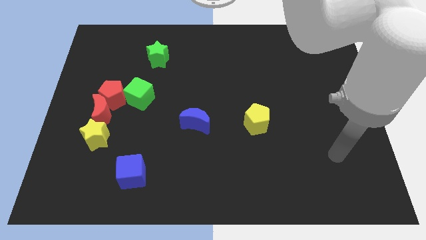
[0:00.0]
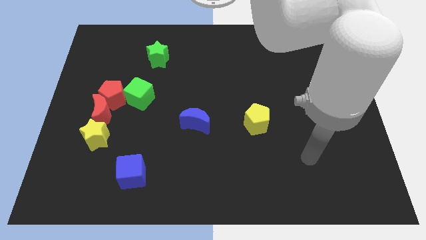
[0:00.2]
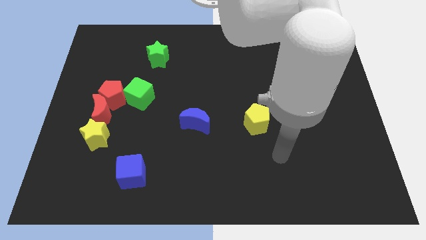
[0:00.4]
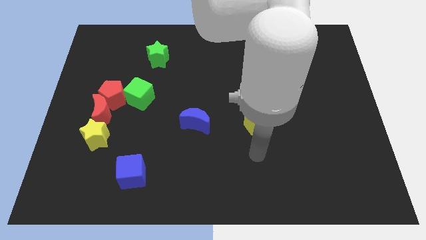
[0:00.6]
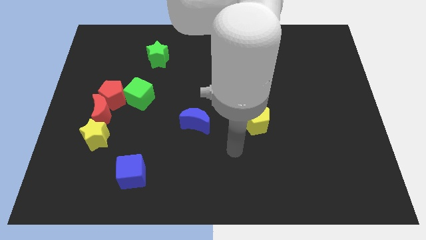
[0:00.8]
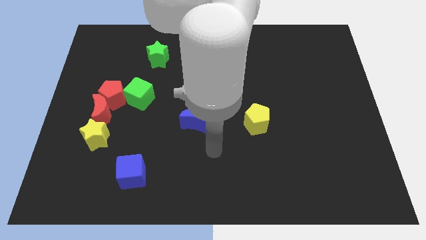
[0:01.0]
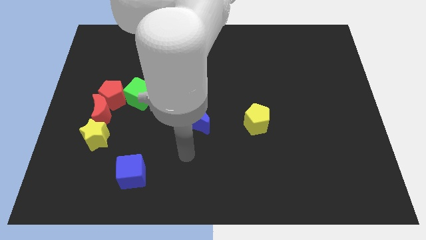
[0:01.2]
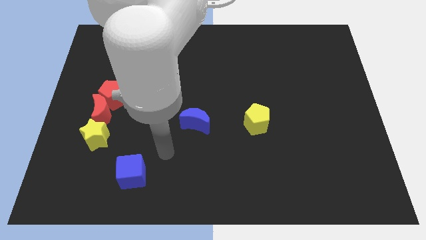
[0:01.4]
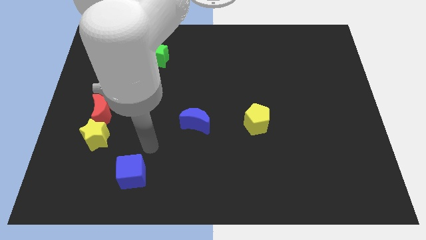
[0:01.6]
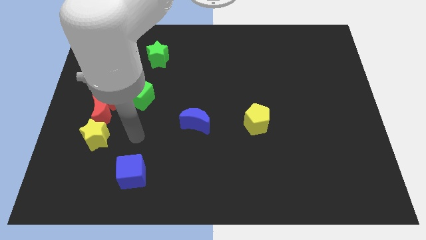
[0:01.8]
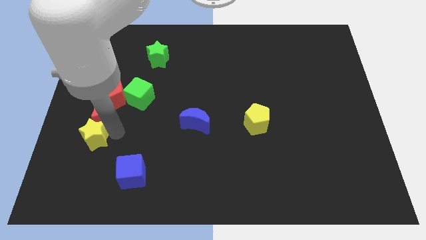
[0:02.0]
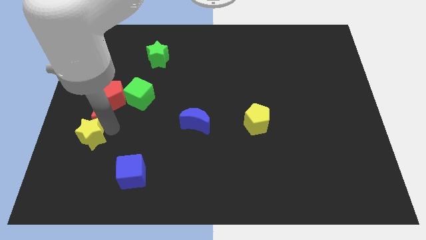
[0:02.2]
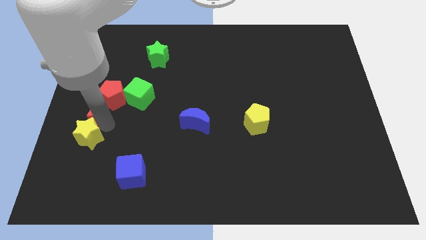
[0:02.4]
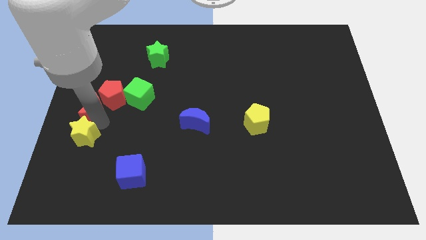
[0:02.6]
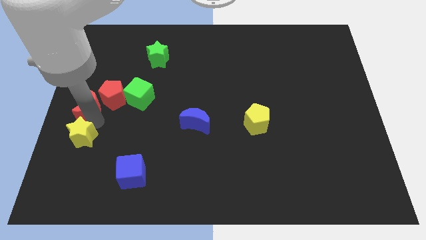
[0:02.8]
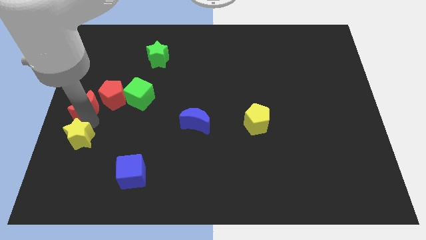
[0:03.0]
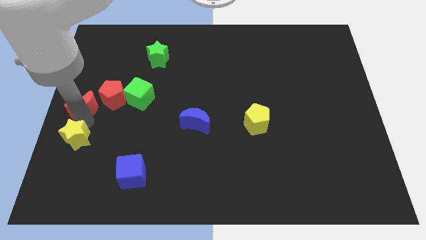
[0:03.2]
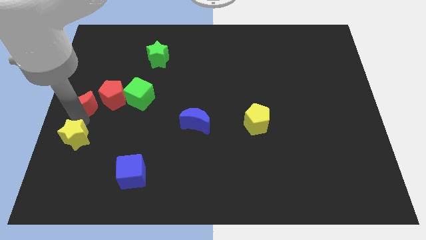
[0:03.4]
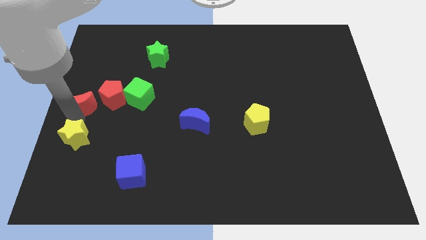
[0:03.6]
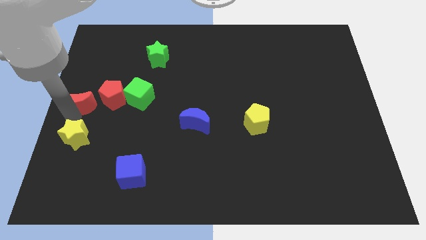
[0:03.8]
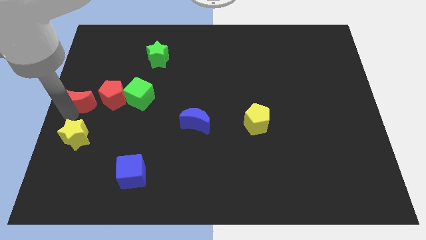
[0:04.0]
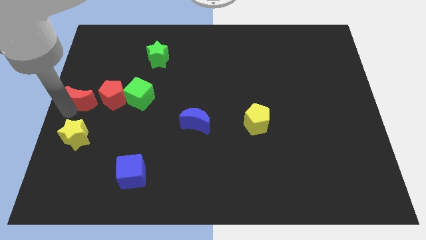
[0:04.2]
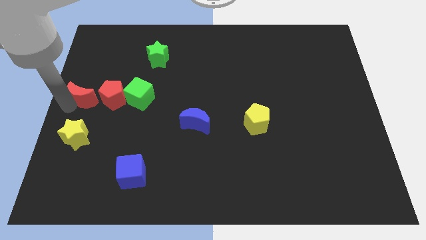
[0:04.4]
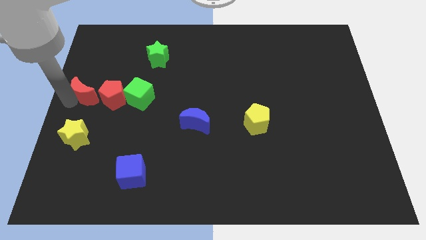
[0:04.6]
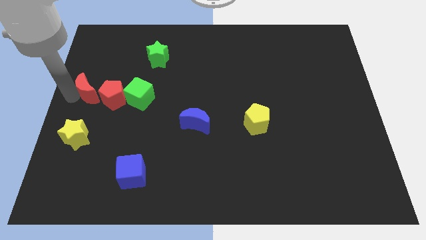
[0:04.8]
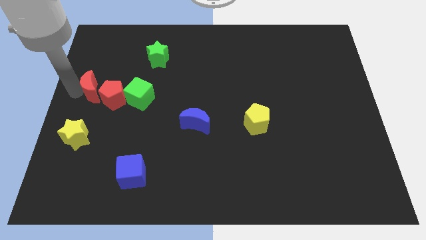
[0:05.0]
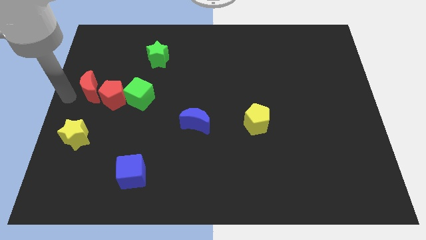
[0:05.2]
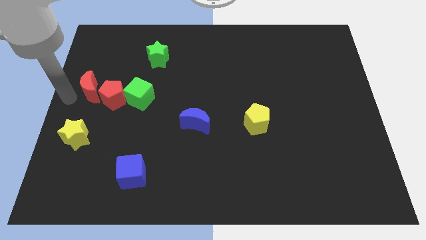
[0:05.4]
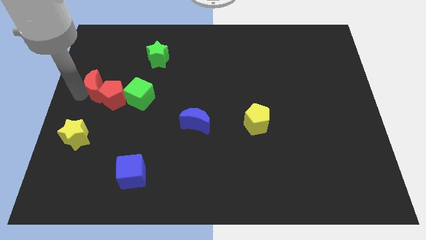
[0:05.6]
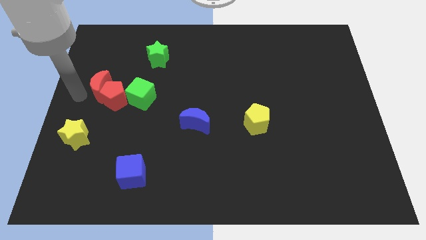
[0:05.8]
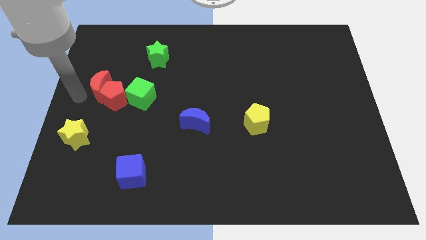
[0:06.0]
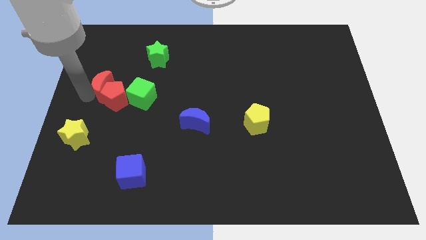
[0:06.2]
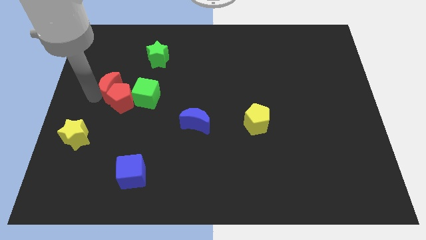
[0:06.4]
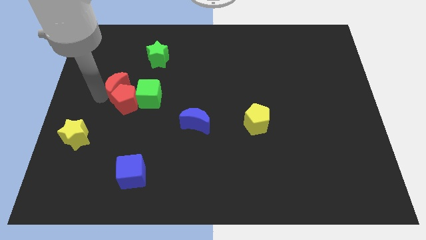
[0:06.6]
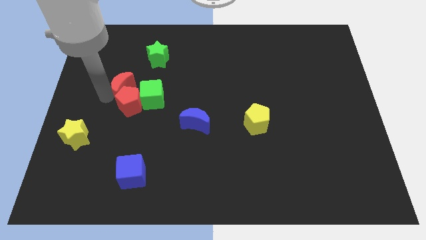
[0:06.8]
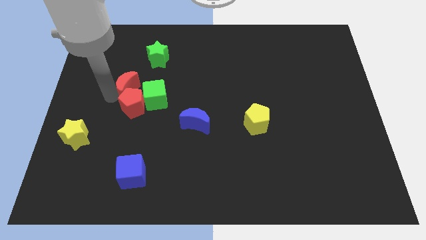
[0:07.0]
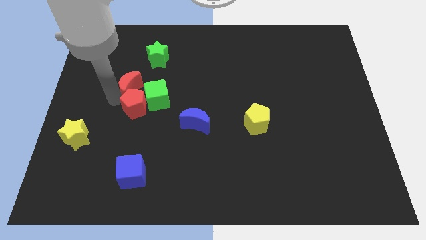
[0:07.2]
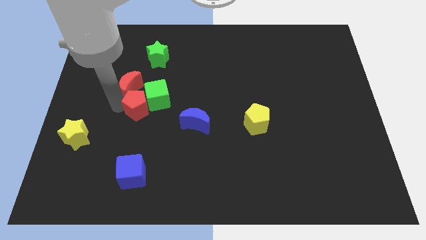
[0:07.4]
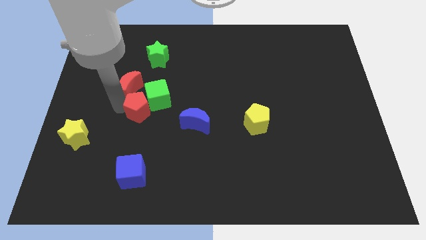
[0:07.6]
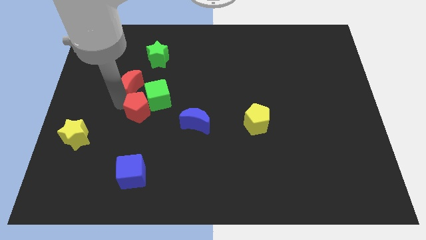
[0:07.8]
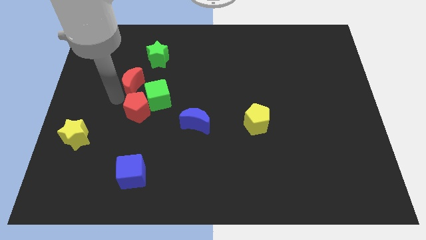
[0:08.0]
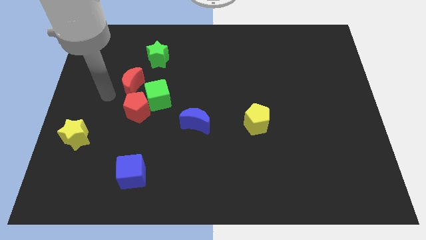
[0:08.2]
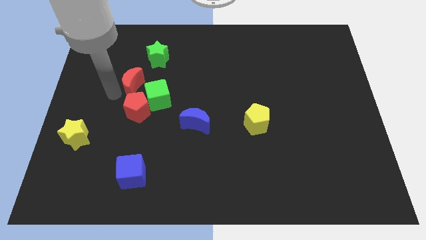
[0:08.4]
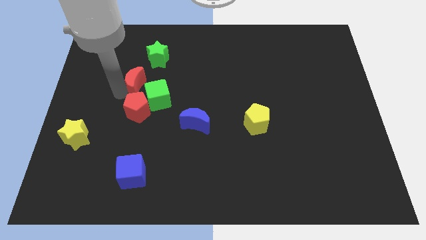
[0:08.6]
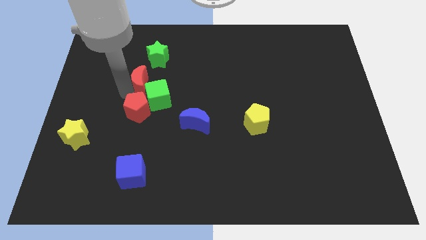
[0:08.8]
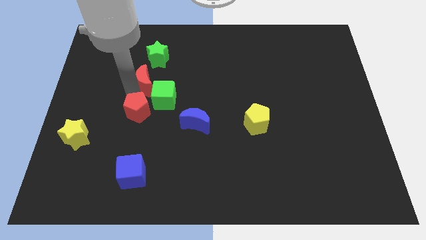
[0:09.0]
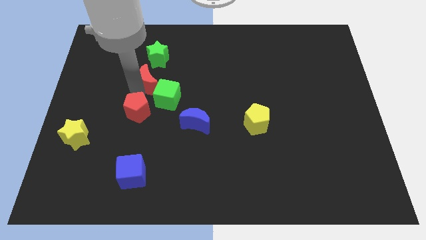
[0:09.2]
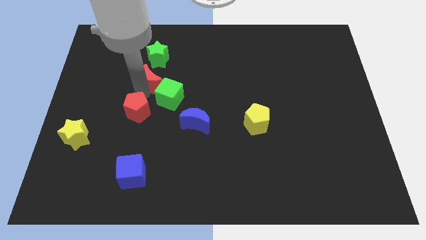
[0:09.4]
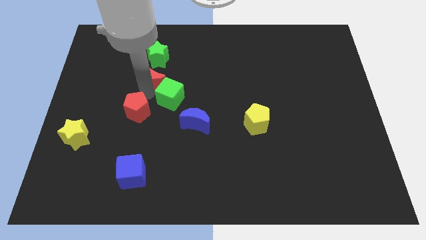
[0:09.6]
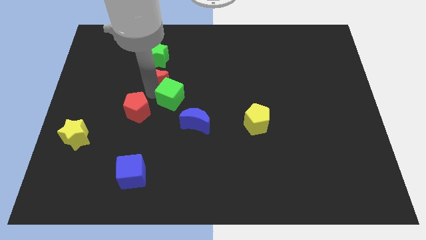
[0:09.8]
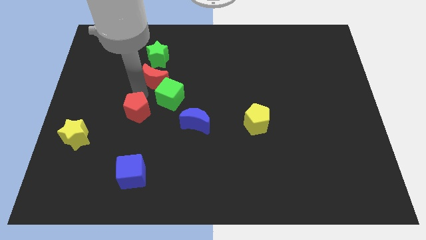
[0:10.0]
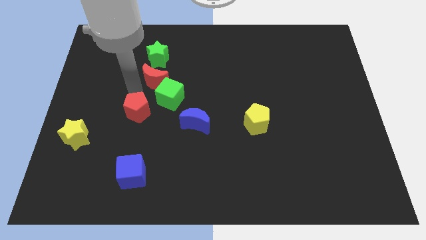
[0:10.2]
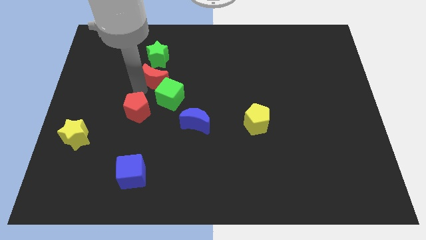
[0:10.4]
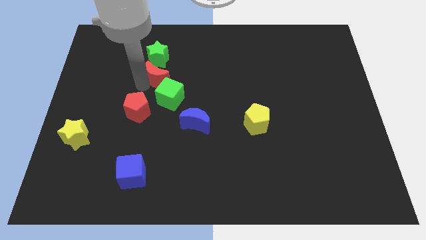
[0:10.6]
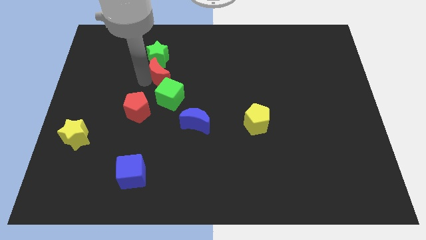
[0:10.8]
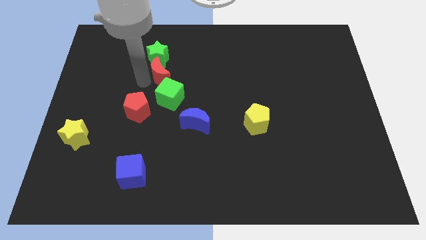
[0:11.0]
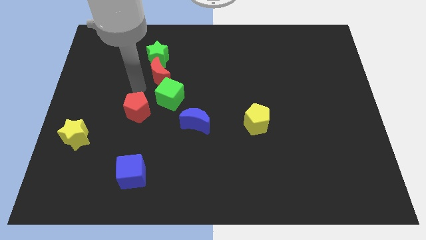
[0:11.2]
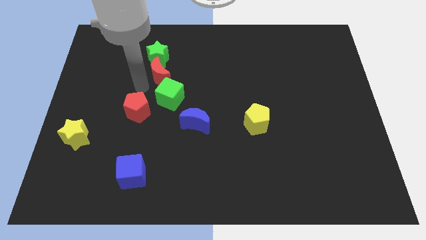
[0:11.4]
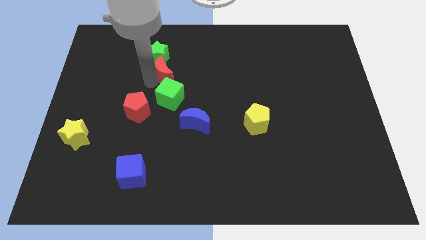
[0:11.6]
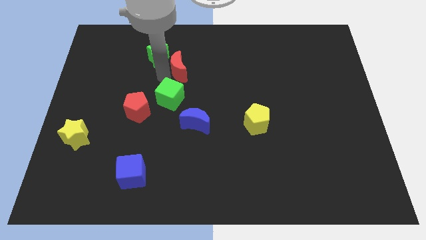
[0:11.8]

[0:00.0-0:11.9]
slide the red moon to the right of the green star
